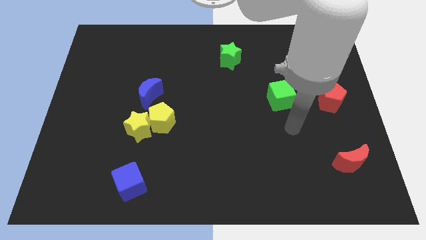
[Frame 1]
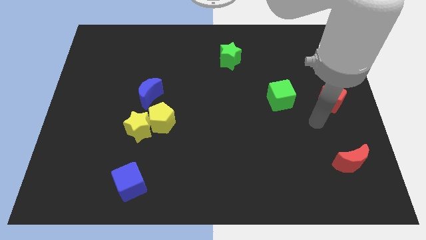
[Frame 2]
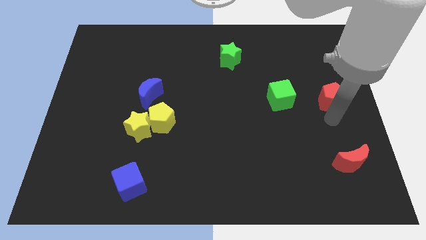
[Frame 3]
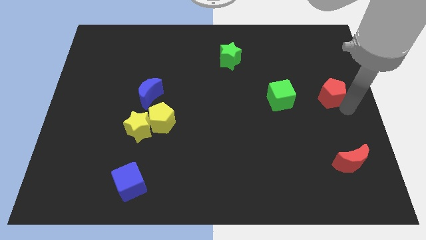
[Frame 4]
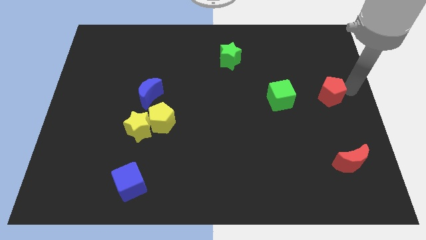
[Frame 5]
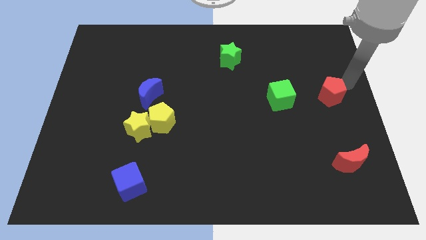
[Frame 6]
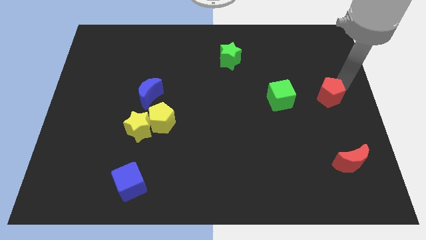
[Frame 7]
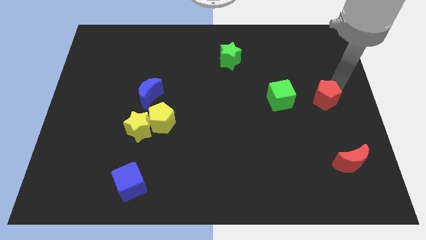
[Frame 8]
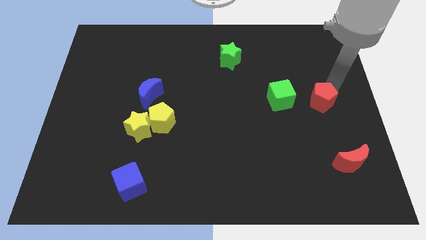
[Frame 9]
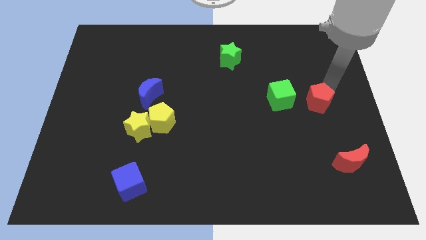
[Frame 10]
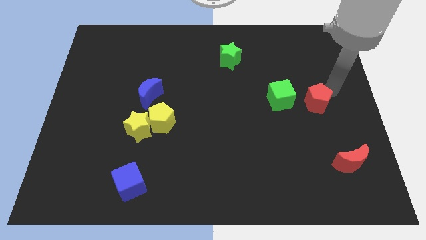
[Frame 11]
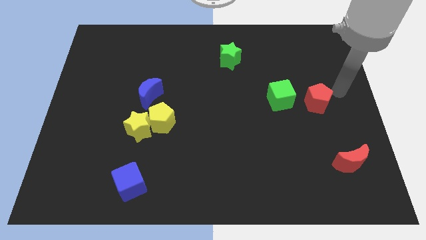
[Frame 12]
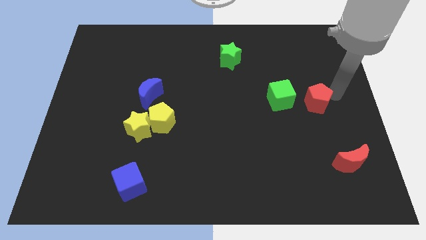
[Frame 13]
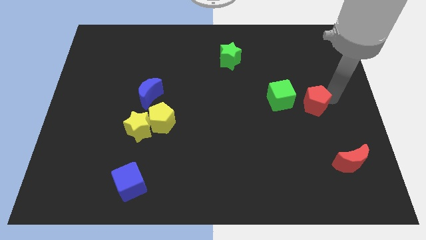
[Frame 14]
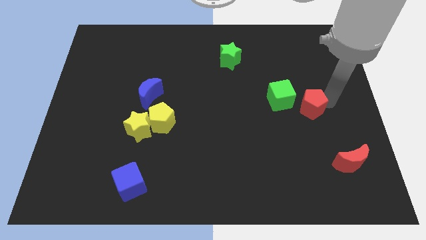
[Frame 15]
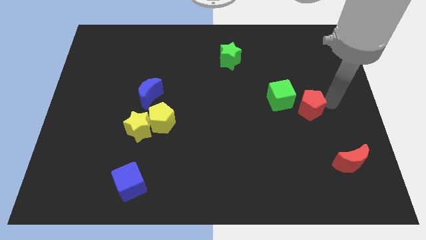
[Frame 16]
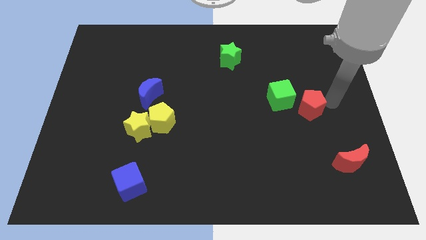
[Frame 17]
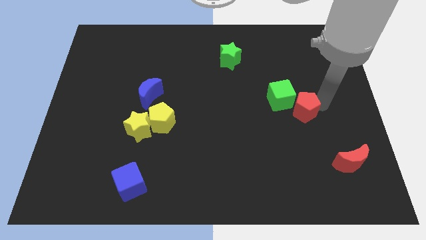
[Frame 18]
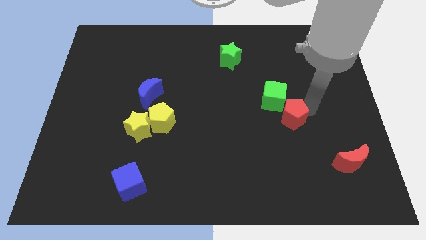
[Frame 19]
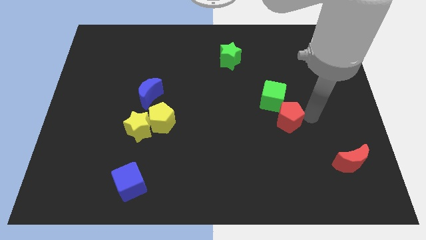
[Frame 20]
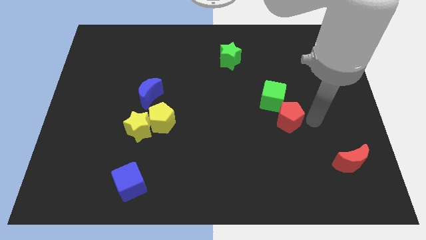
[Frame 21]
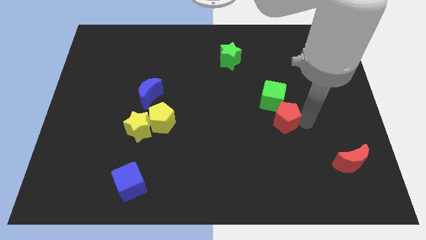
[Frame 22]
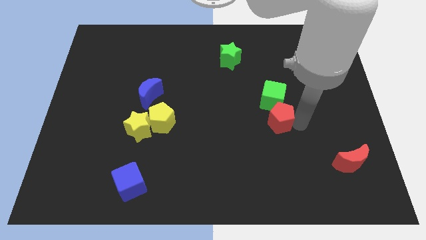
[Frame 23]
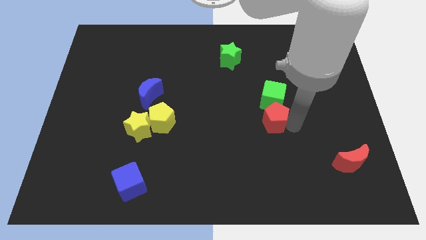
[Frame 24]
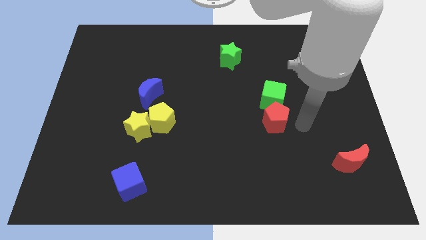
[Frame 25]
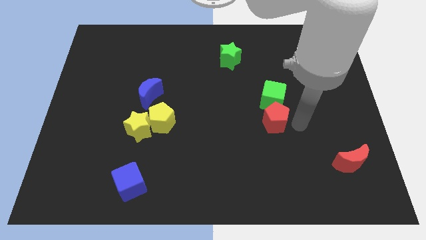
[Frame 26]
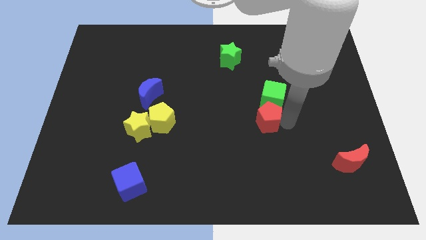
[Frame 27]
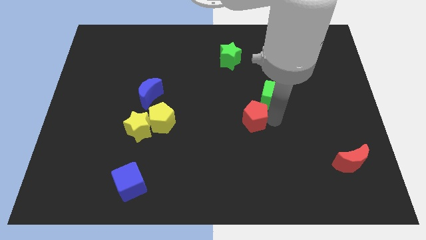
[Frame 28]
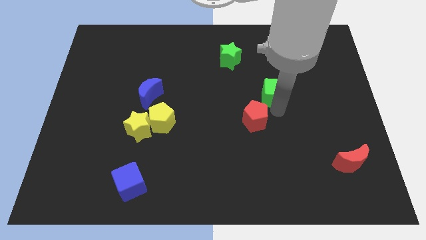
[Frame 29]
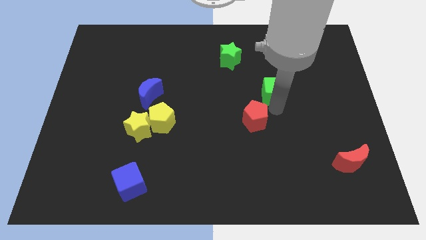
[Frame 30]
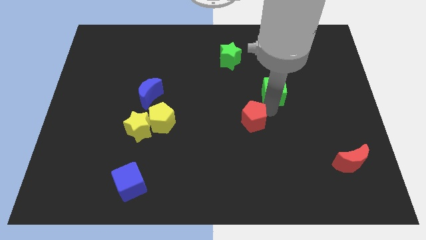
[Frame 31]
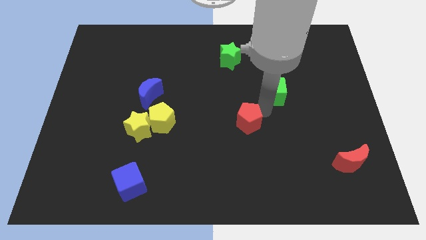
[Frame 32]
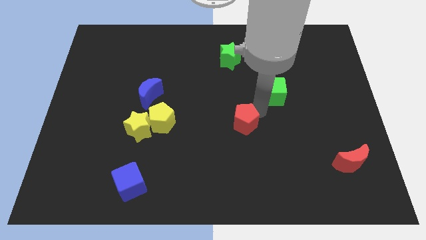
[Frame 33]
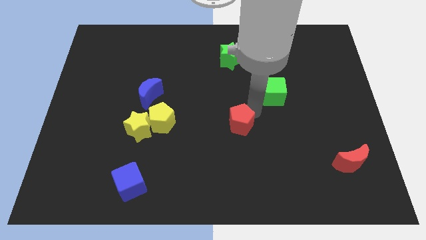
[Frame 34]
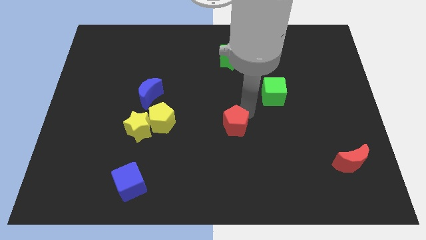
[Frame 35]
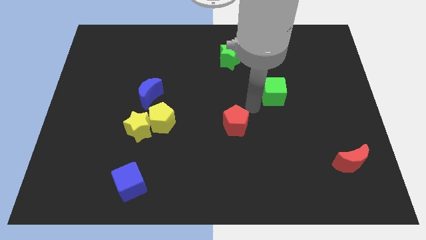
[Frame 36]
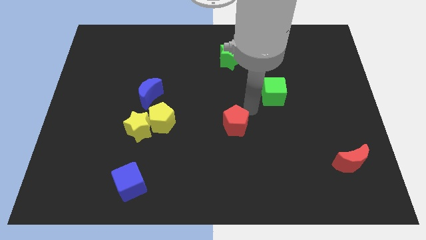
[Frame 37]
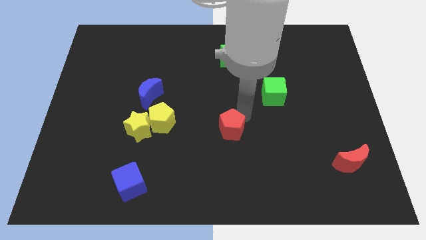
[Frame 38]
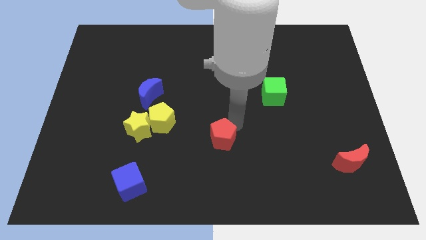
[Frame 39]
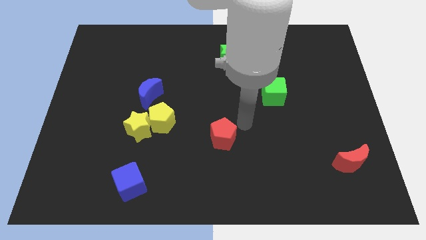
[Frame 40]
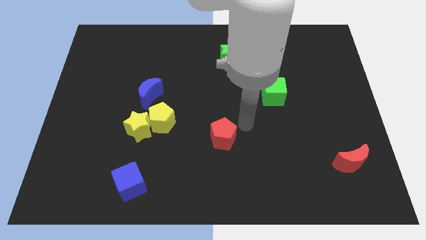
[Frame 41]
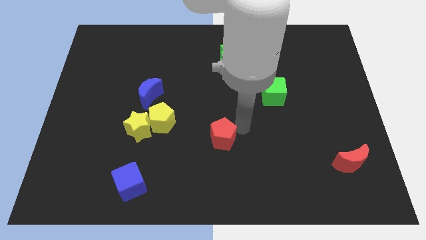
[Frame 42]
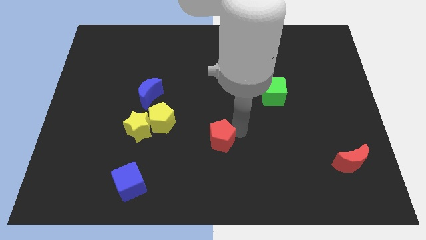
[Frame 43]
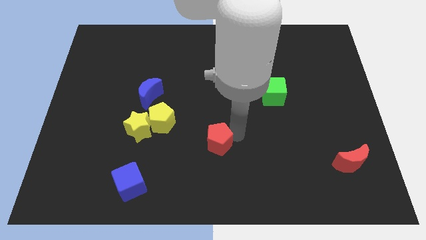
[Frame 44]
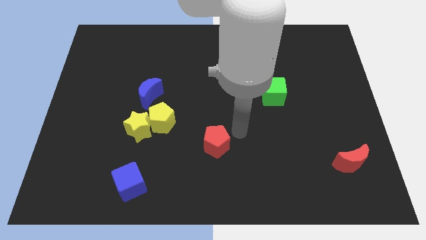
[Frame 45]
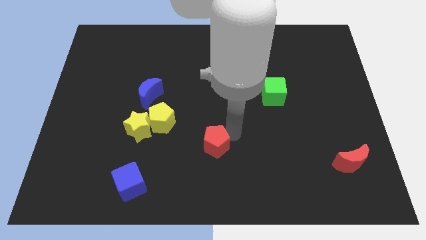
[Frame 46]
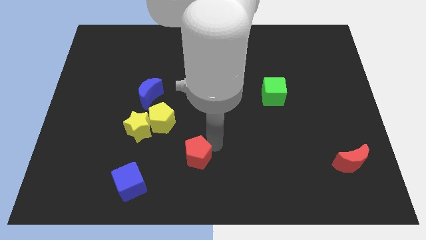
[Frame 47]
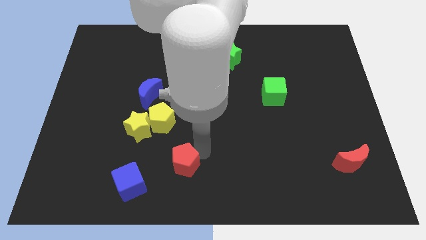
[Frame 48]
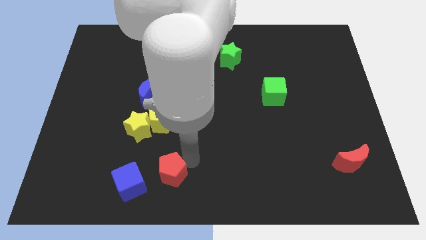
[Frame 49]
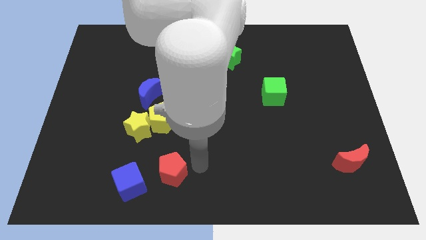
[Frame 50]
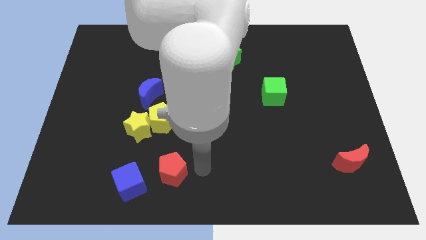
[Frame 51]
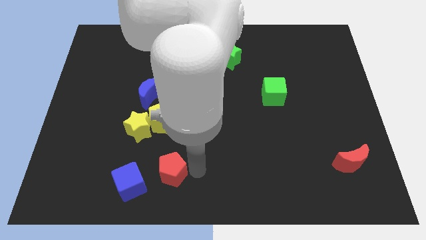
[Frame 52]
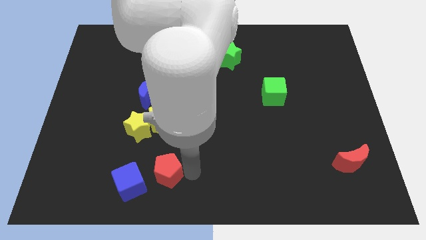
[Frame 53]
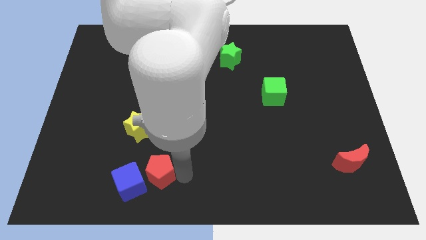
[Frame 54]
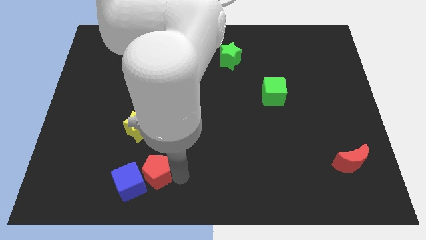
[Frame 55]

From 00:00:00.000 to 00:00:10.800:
slide the red pentagon to the blue cube
